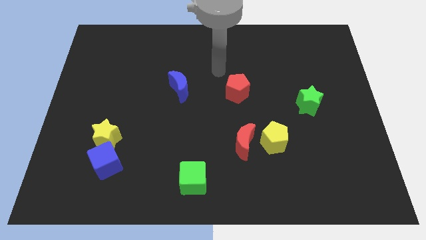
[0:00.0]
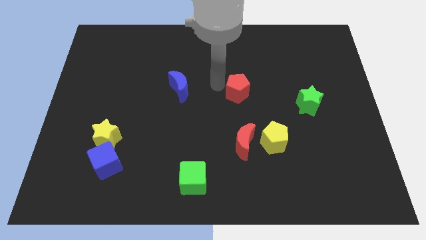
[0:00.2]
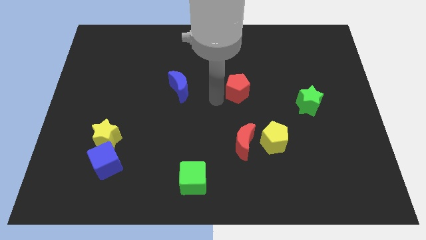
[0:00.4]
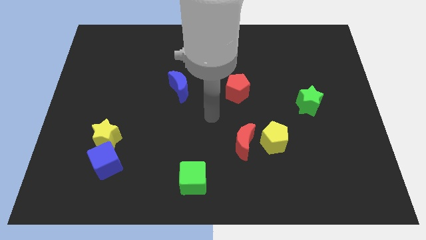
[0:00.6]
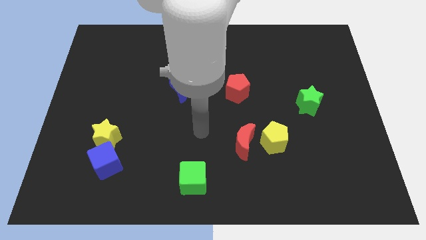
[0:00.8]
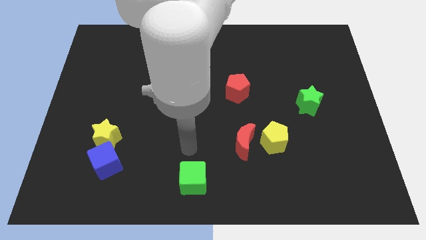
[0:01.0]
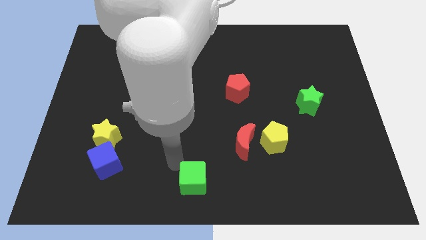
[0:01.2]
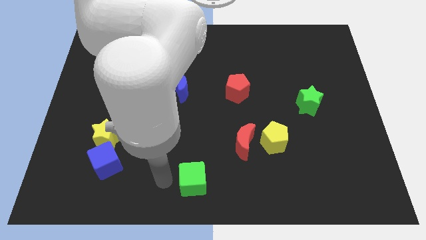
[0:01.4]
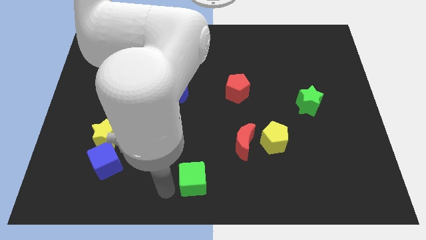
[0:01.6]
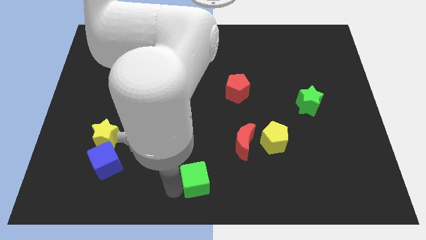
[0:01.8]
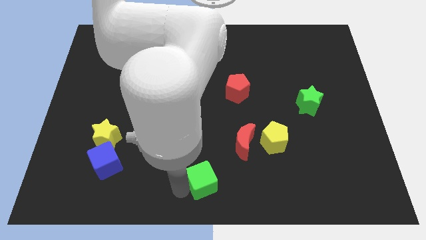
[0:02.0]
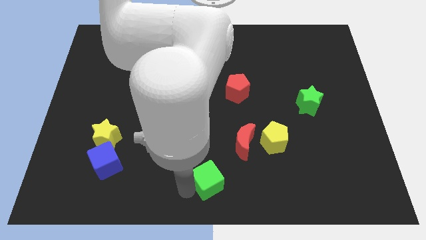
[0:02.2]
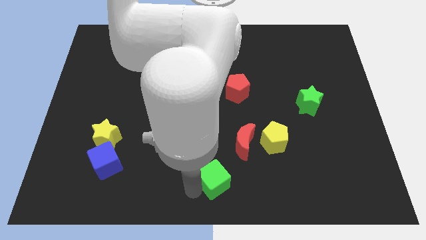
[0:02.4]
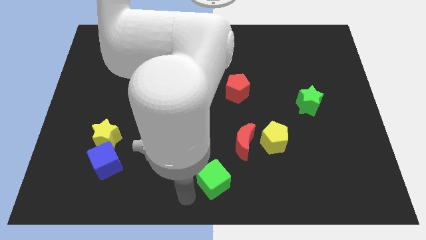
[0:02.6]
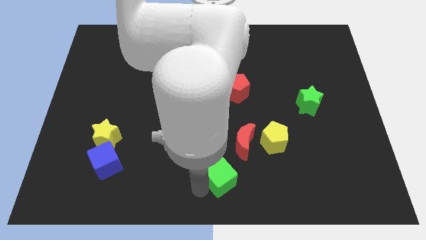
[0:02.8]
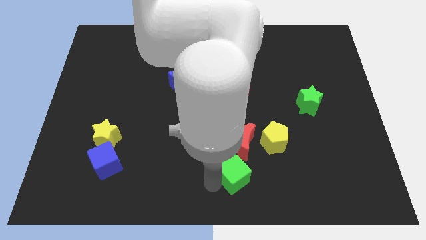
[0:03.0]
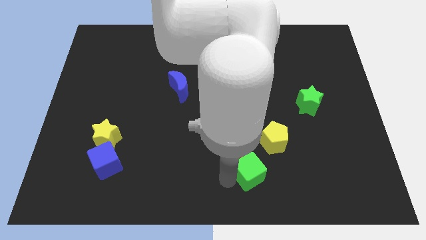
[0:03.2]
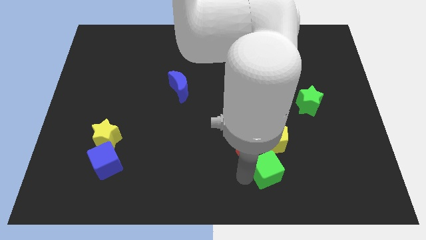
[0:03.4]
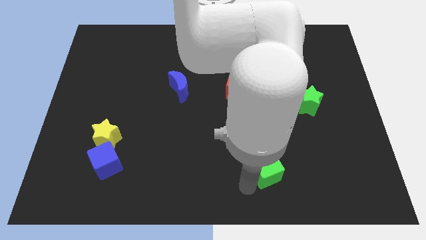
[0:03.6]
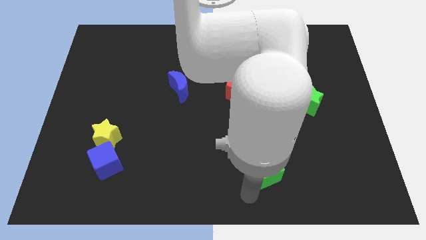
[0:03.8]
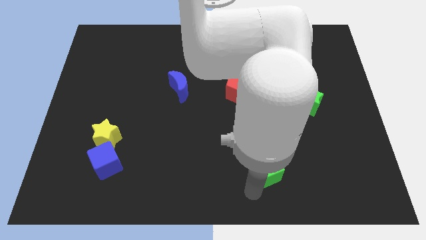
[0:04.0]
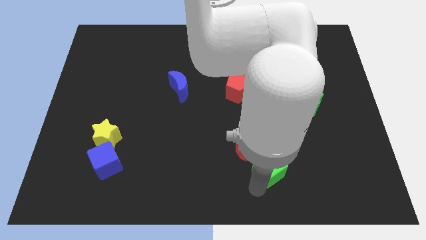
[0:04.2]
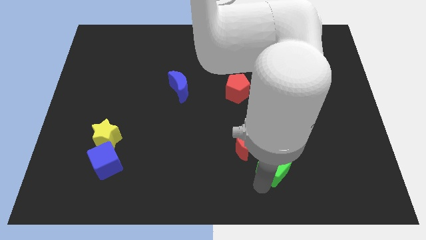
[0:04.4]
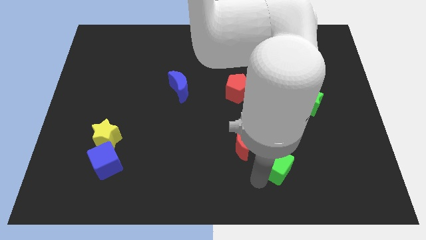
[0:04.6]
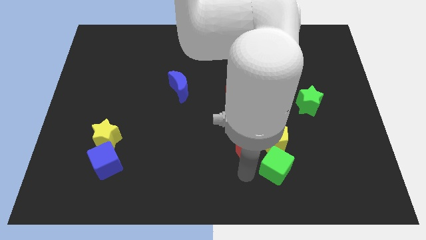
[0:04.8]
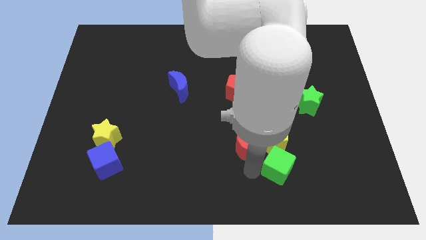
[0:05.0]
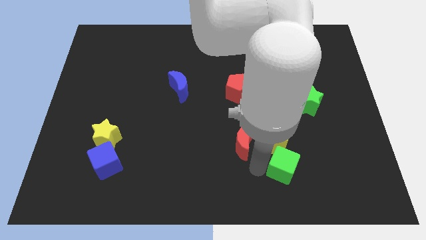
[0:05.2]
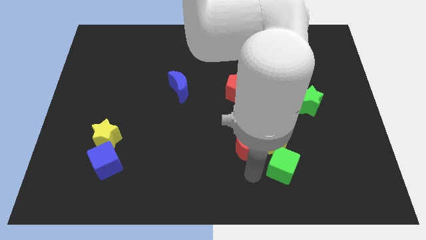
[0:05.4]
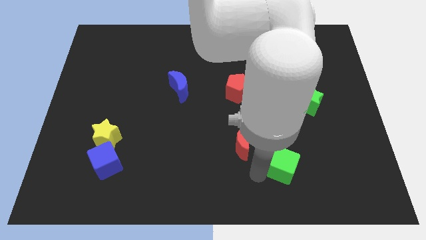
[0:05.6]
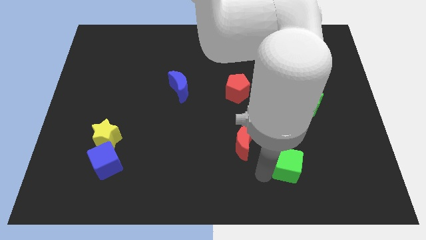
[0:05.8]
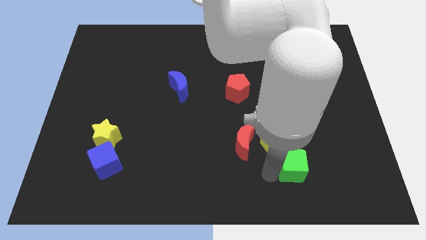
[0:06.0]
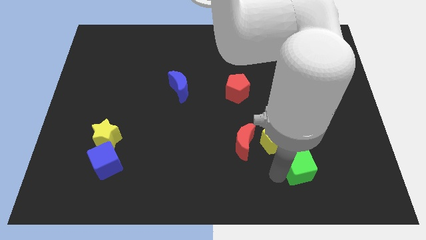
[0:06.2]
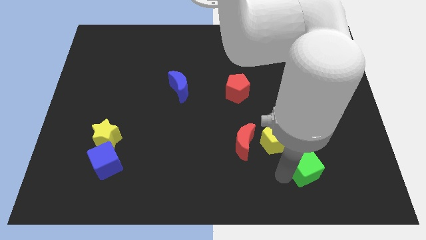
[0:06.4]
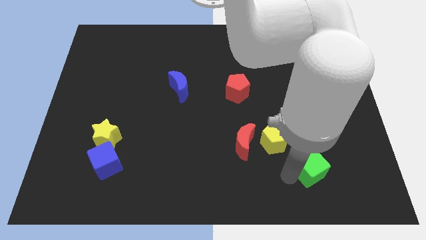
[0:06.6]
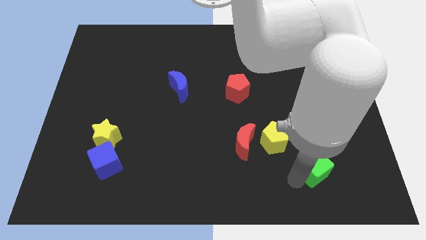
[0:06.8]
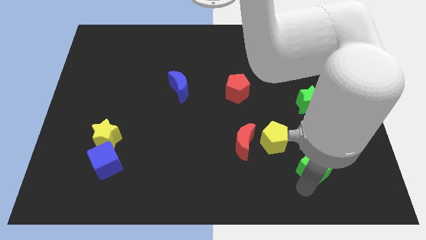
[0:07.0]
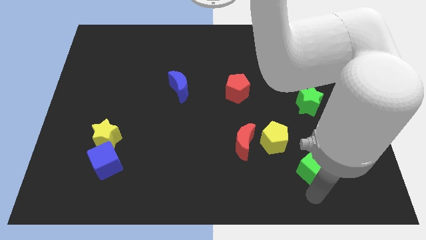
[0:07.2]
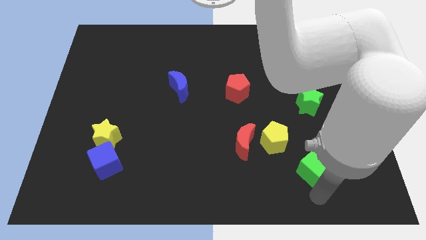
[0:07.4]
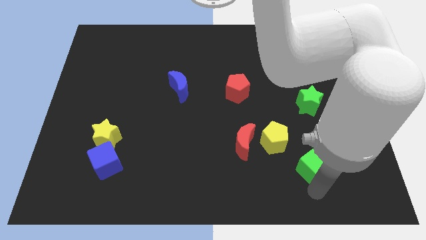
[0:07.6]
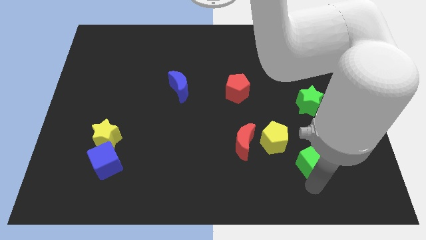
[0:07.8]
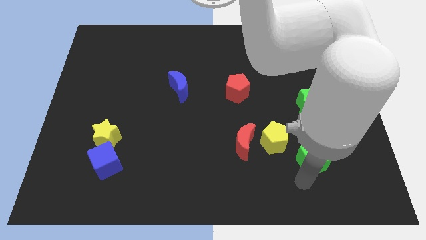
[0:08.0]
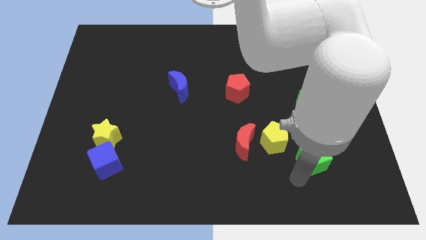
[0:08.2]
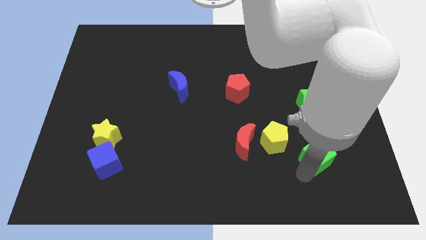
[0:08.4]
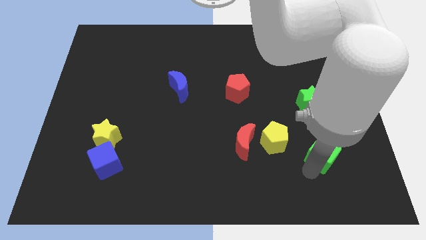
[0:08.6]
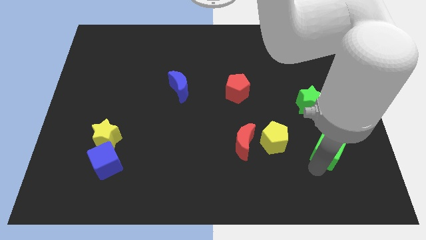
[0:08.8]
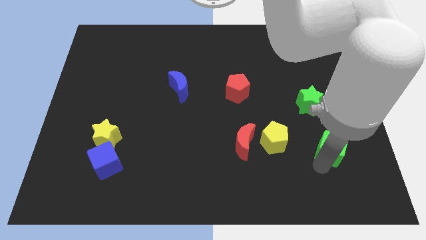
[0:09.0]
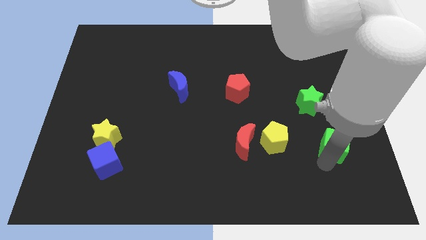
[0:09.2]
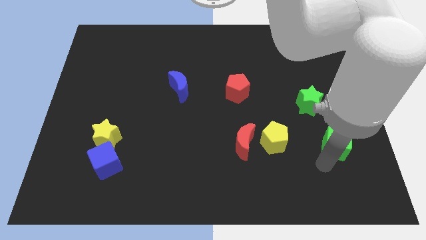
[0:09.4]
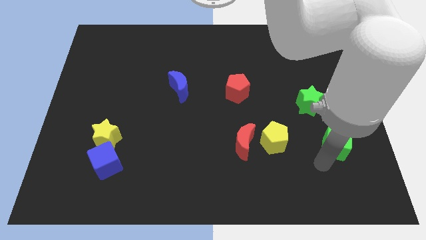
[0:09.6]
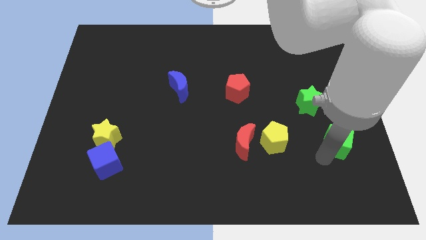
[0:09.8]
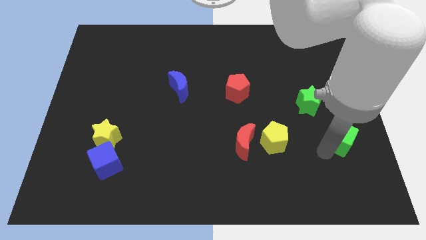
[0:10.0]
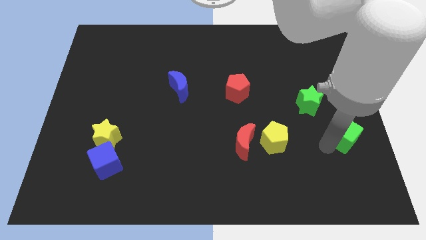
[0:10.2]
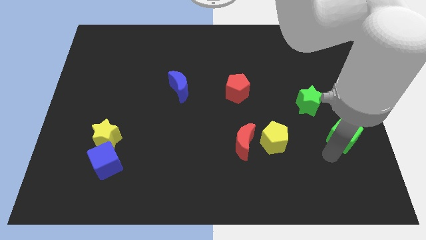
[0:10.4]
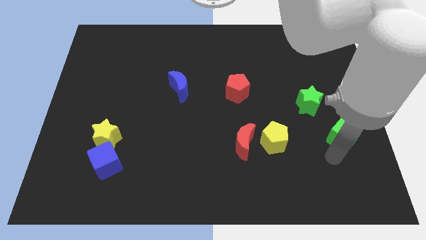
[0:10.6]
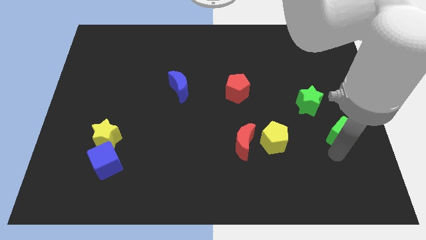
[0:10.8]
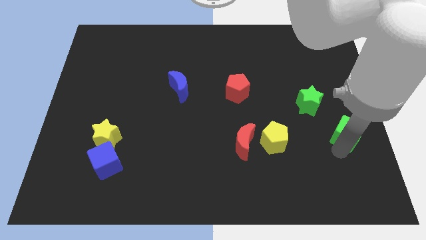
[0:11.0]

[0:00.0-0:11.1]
slide the green cube to the center right

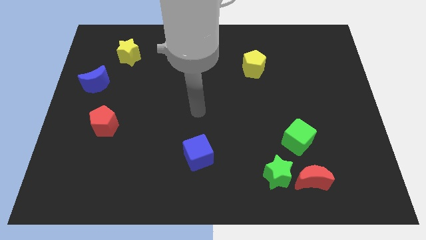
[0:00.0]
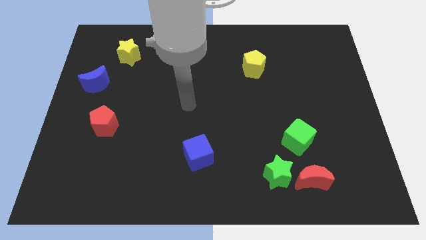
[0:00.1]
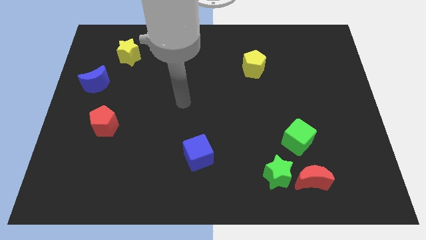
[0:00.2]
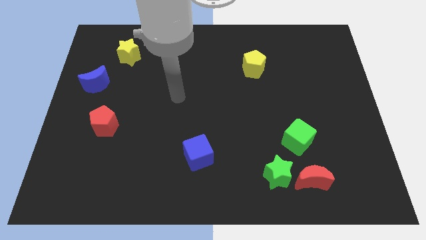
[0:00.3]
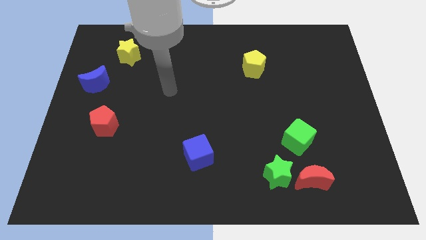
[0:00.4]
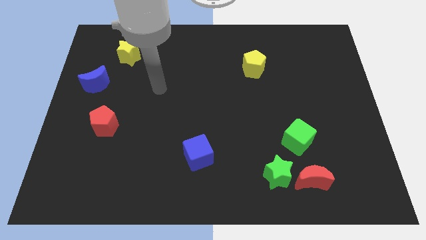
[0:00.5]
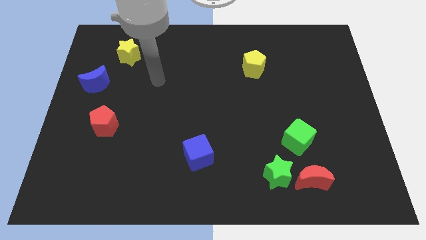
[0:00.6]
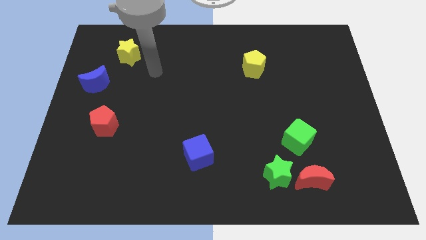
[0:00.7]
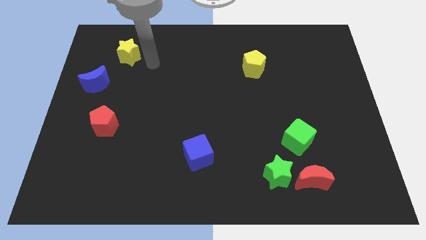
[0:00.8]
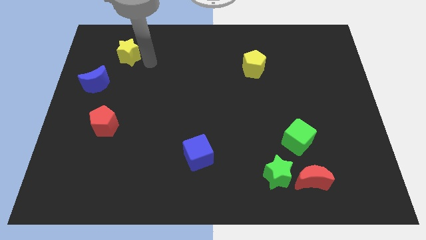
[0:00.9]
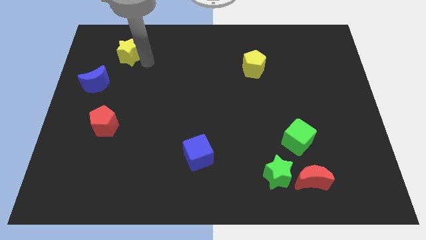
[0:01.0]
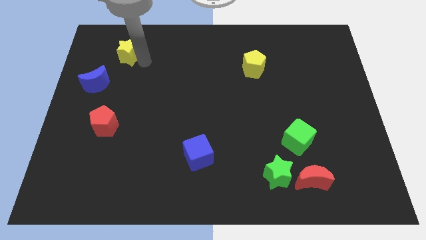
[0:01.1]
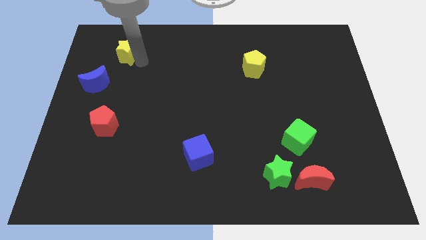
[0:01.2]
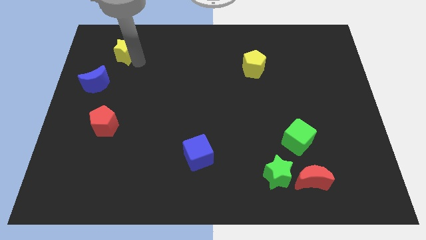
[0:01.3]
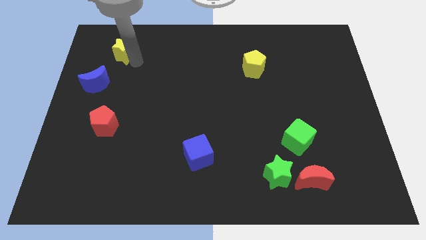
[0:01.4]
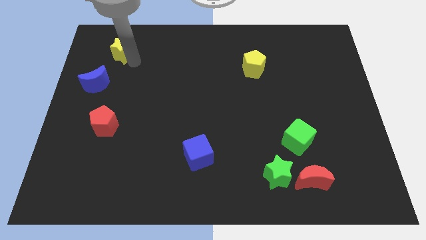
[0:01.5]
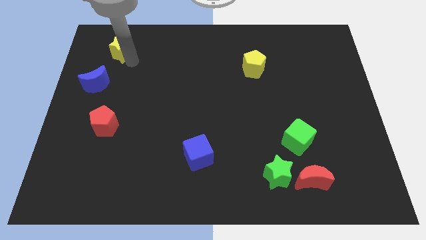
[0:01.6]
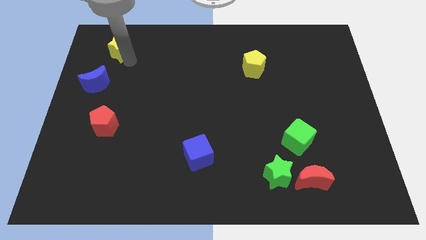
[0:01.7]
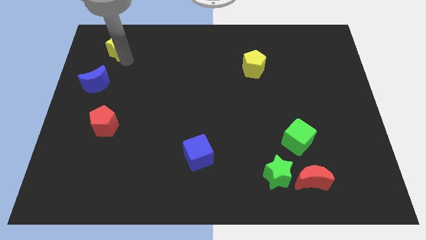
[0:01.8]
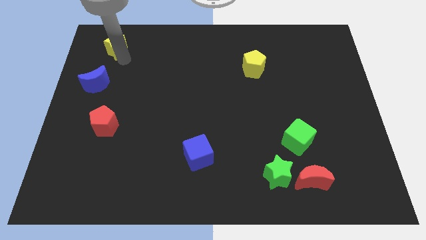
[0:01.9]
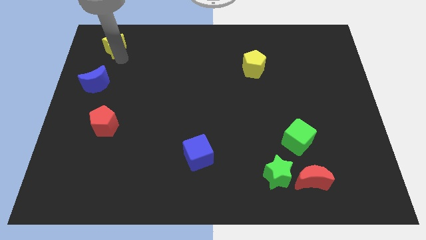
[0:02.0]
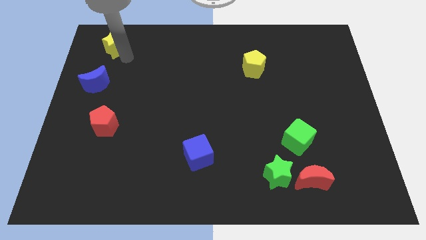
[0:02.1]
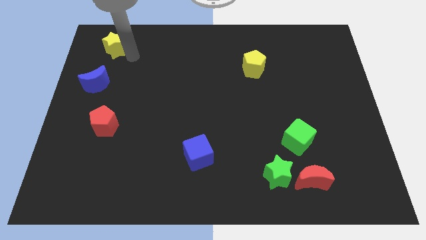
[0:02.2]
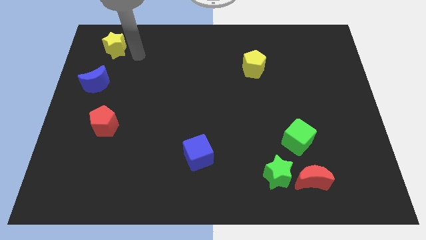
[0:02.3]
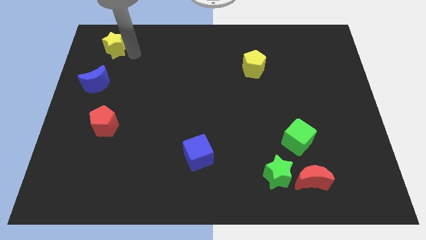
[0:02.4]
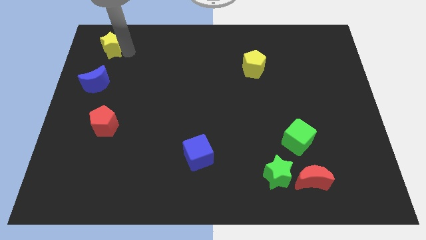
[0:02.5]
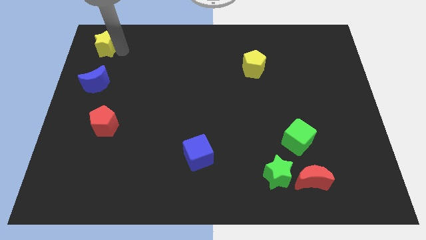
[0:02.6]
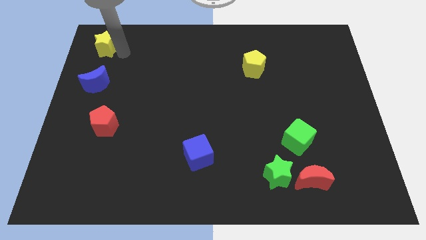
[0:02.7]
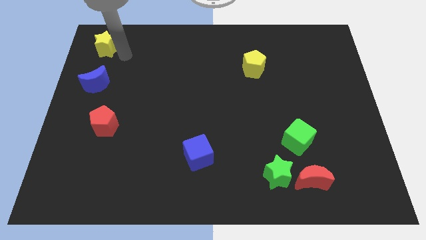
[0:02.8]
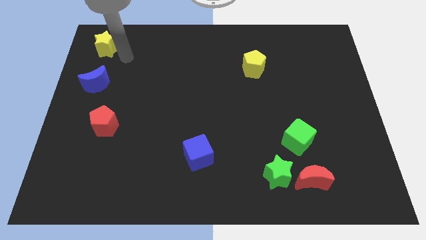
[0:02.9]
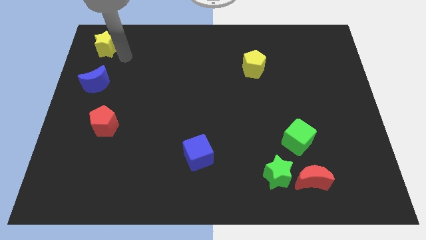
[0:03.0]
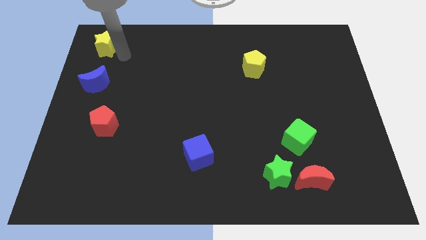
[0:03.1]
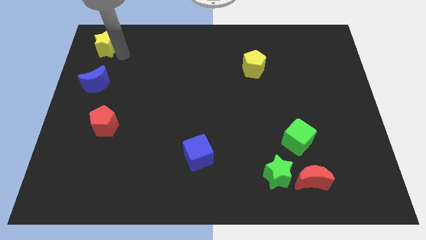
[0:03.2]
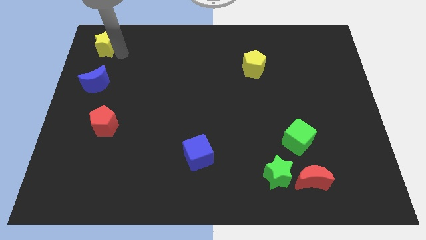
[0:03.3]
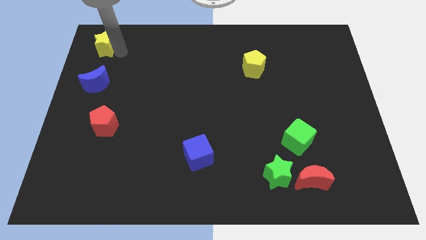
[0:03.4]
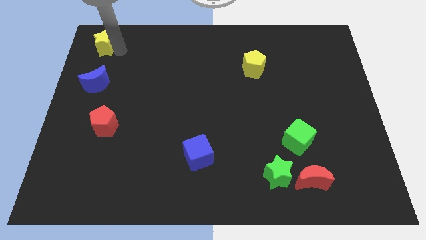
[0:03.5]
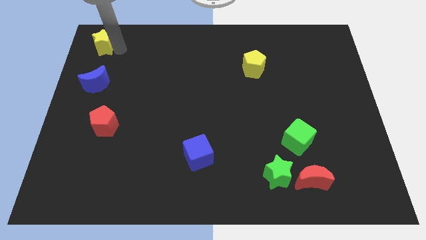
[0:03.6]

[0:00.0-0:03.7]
slide the yellow star to the top left
